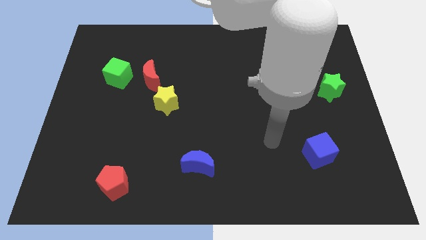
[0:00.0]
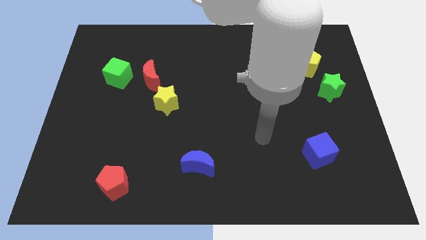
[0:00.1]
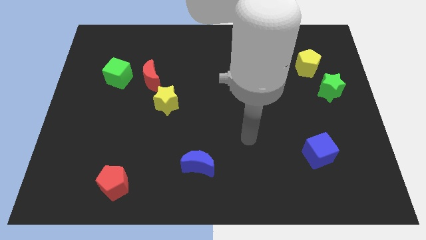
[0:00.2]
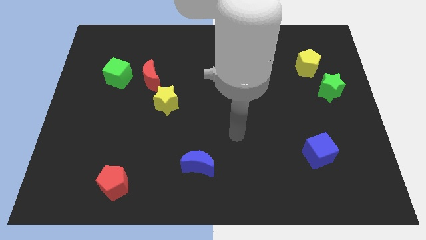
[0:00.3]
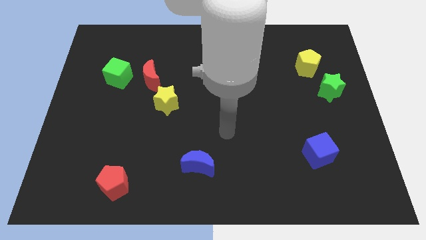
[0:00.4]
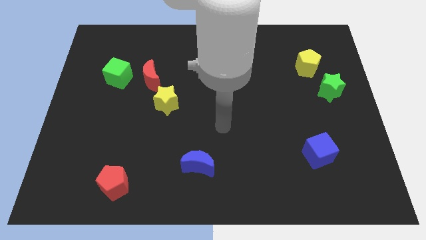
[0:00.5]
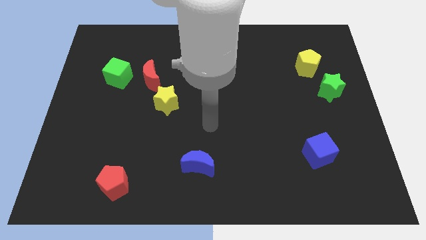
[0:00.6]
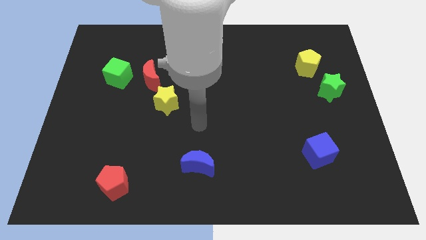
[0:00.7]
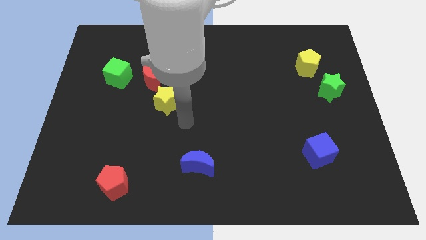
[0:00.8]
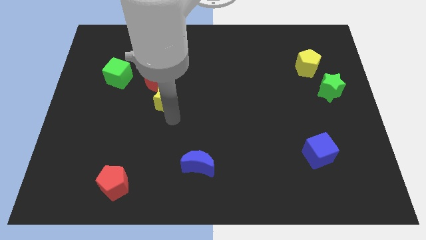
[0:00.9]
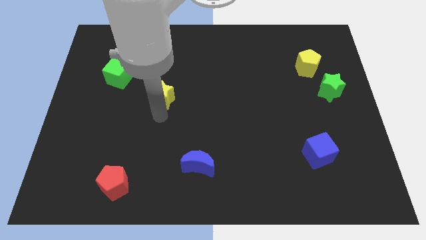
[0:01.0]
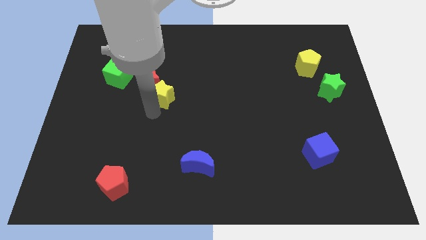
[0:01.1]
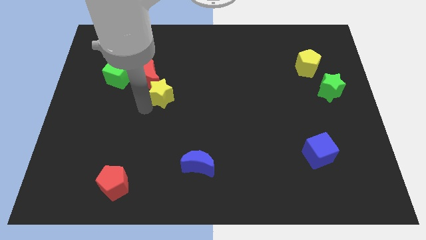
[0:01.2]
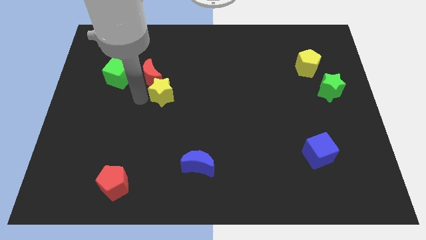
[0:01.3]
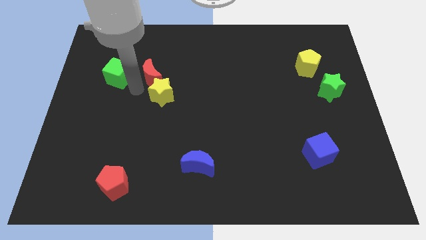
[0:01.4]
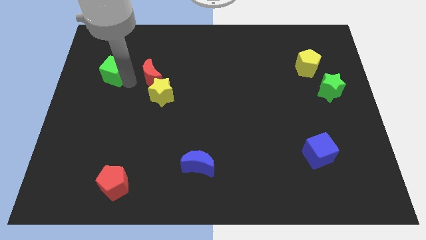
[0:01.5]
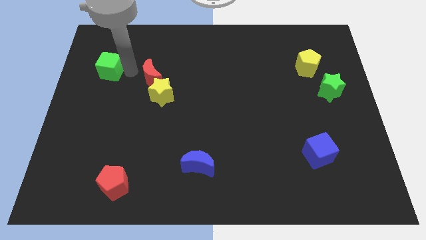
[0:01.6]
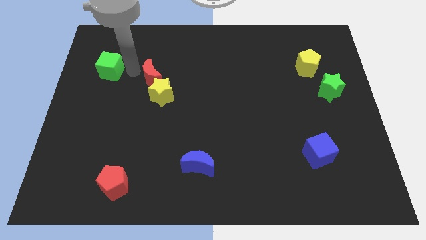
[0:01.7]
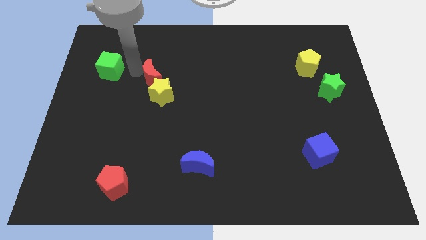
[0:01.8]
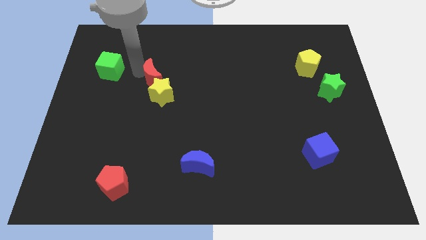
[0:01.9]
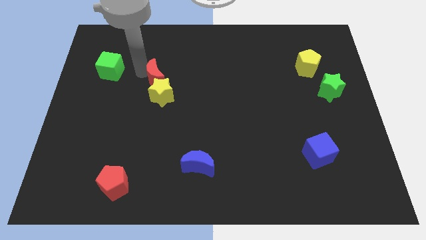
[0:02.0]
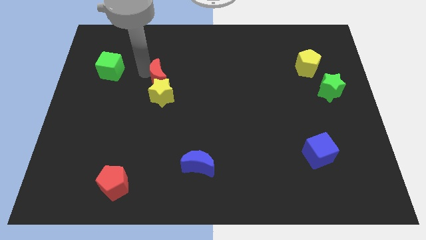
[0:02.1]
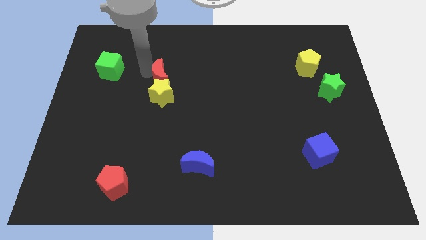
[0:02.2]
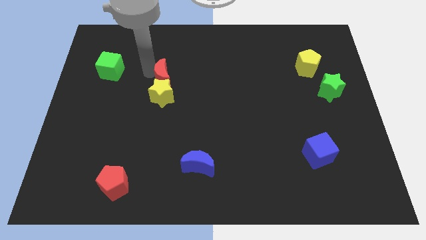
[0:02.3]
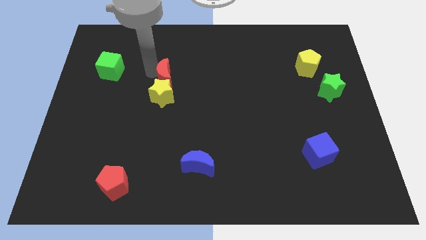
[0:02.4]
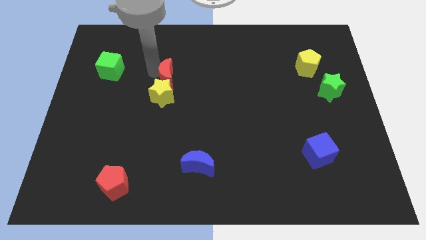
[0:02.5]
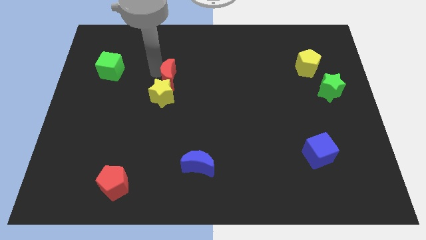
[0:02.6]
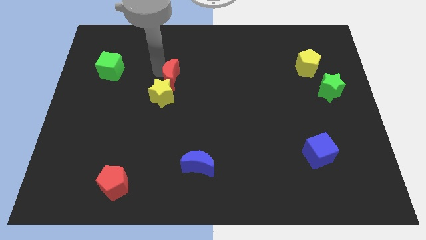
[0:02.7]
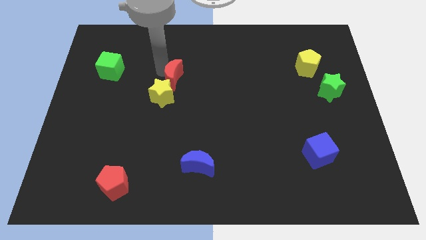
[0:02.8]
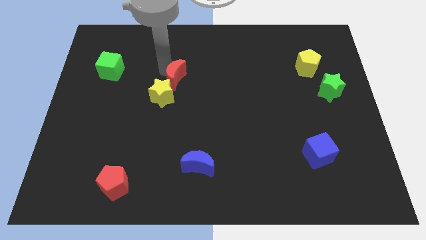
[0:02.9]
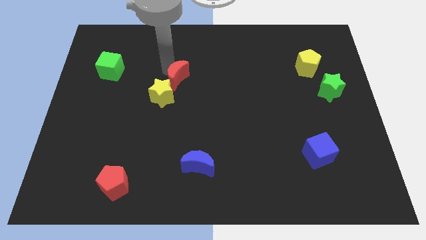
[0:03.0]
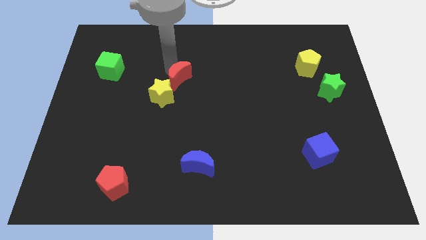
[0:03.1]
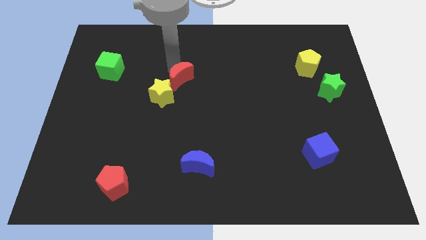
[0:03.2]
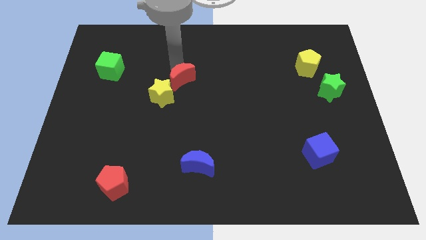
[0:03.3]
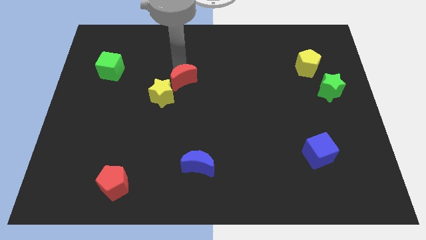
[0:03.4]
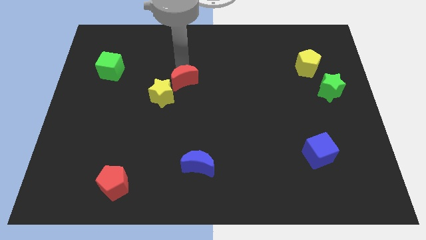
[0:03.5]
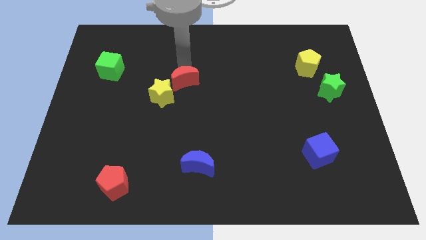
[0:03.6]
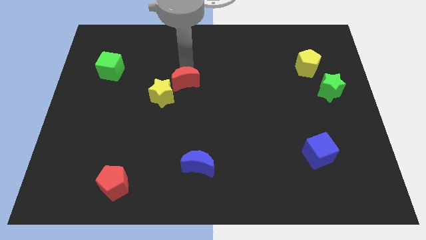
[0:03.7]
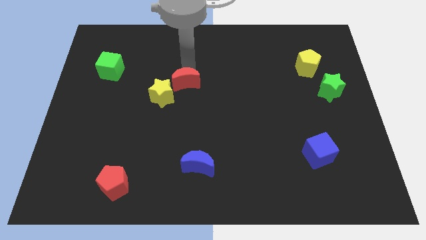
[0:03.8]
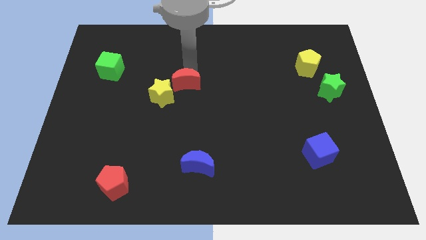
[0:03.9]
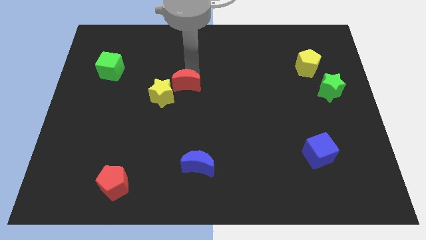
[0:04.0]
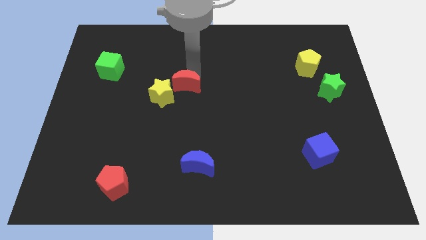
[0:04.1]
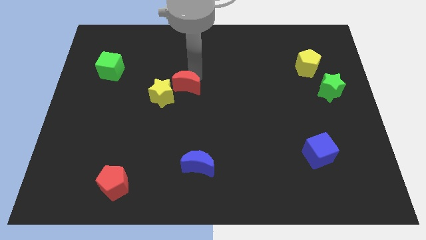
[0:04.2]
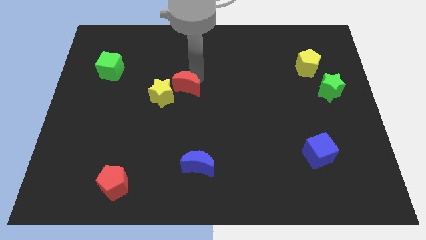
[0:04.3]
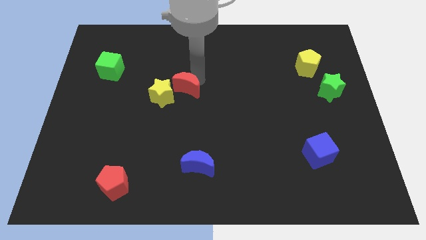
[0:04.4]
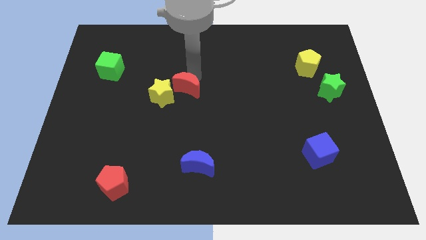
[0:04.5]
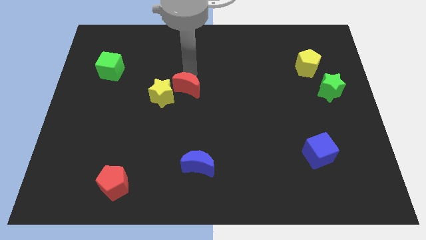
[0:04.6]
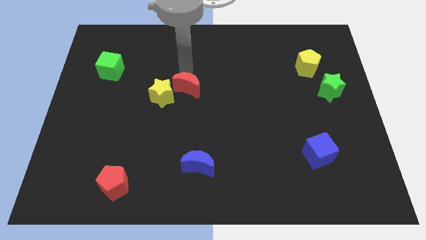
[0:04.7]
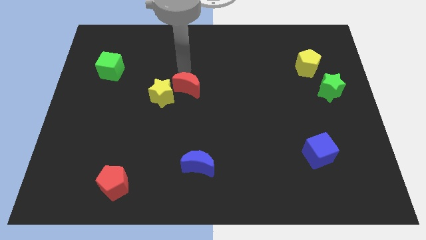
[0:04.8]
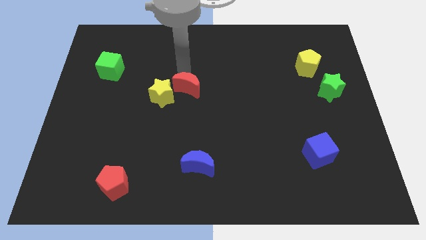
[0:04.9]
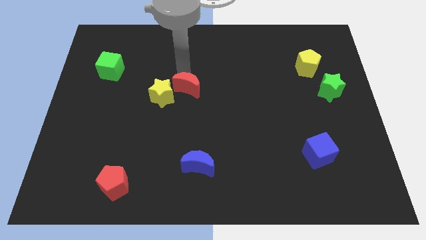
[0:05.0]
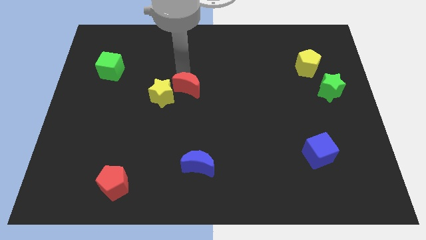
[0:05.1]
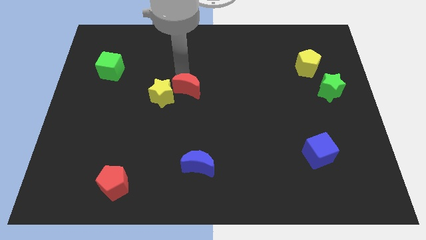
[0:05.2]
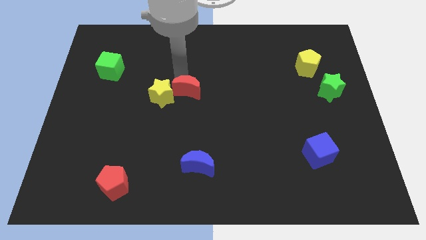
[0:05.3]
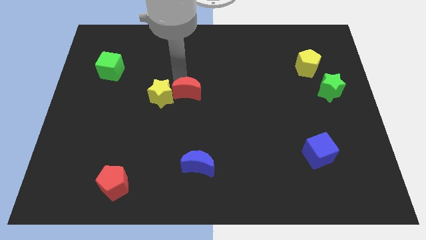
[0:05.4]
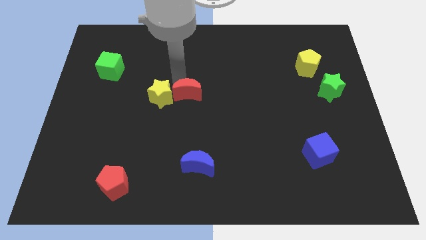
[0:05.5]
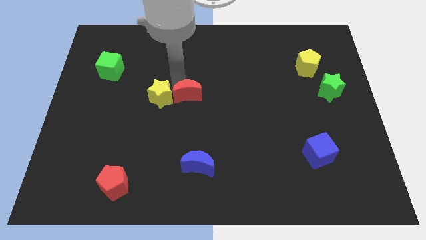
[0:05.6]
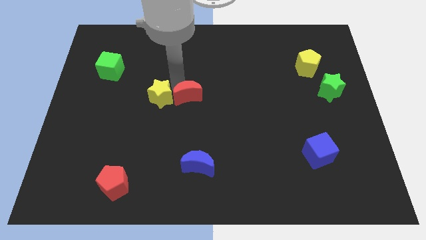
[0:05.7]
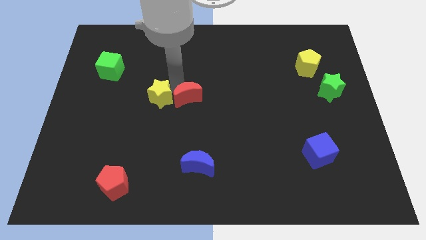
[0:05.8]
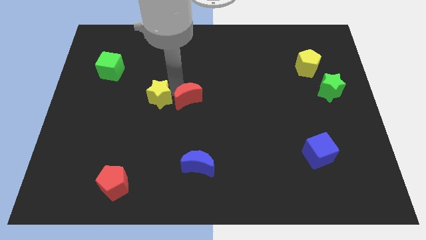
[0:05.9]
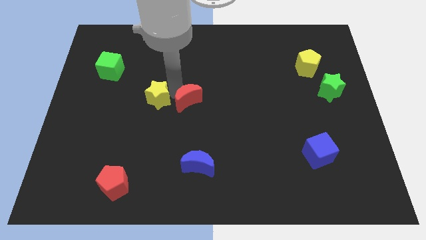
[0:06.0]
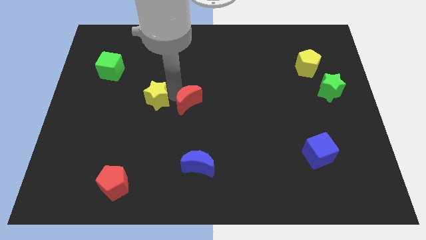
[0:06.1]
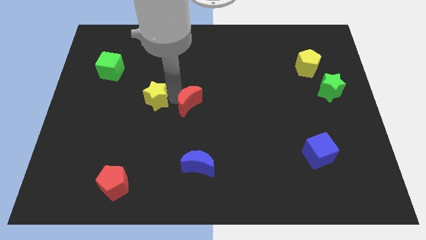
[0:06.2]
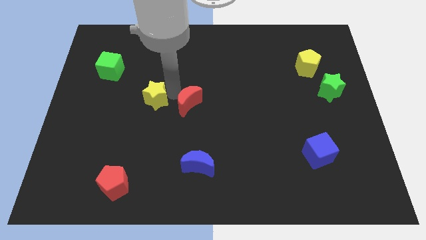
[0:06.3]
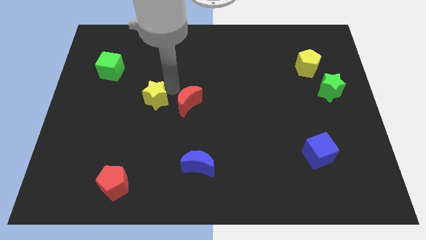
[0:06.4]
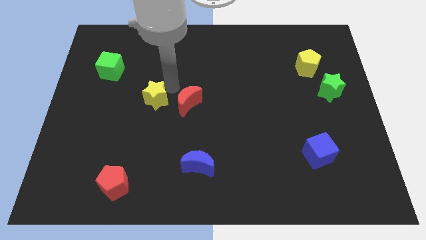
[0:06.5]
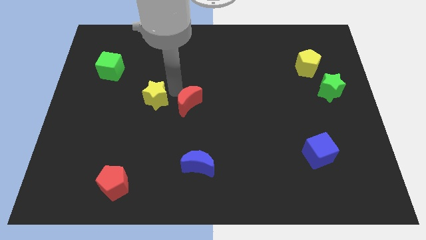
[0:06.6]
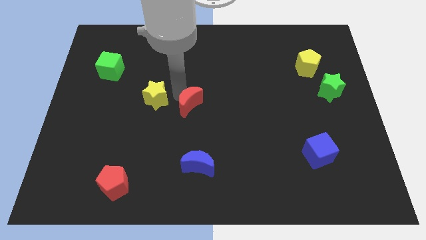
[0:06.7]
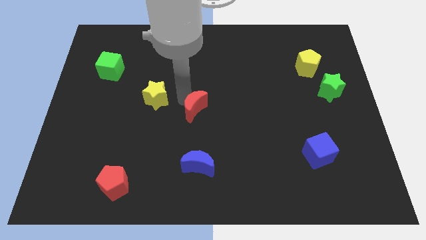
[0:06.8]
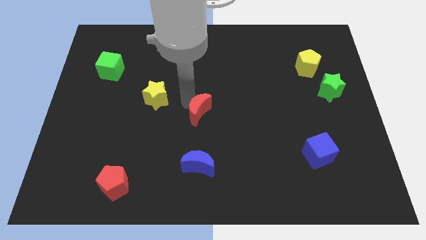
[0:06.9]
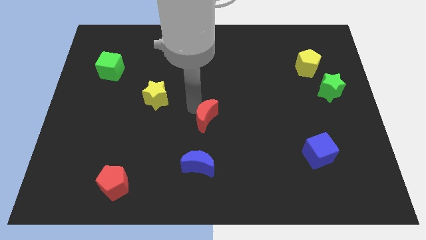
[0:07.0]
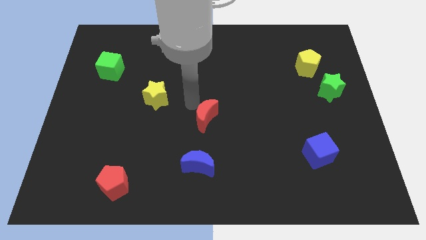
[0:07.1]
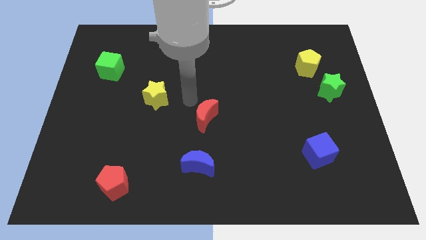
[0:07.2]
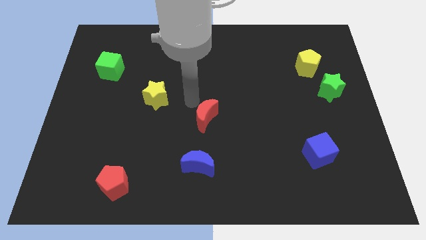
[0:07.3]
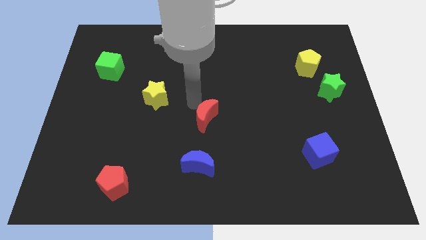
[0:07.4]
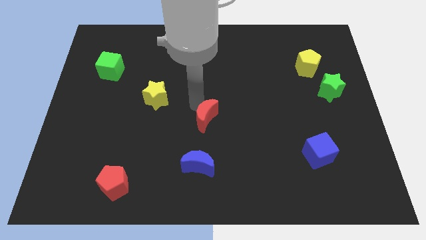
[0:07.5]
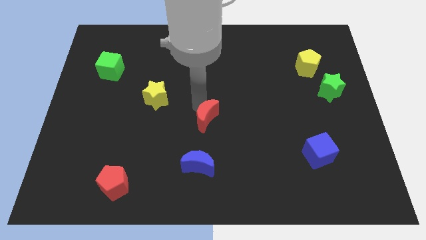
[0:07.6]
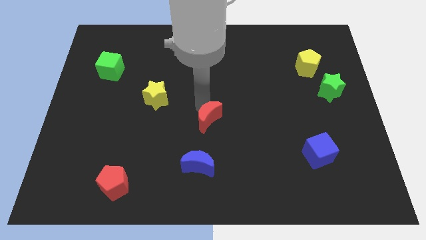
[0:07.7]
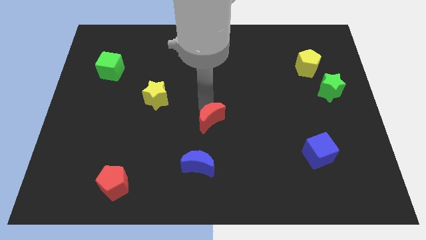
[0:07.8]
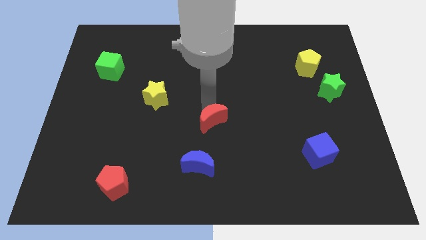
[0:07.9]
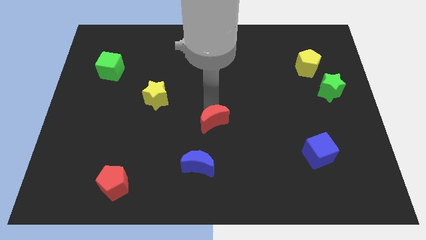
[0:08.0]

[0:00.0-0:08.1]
move the red moon diagonally down and right
